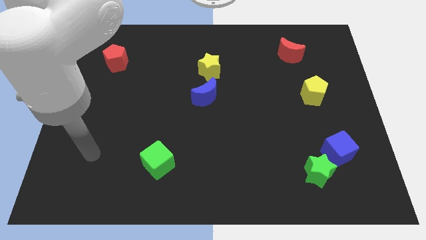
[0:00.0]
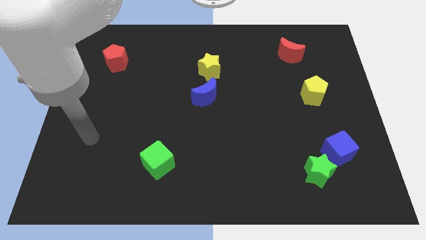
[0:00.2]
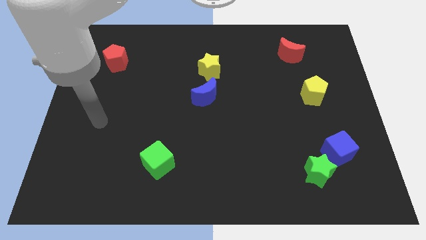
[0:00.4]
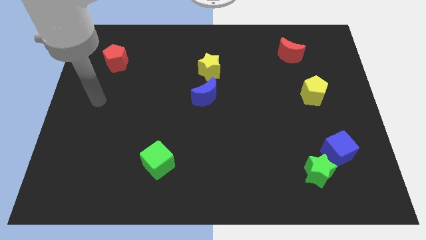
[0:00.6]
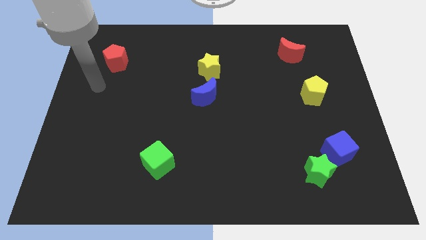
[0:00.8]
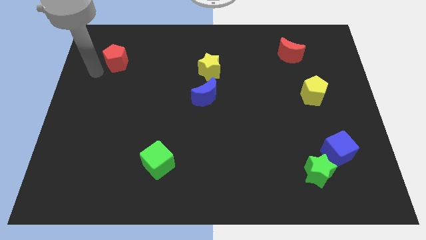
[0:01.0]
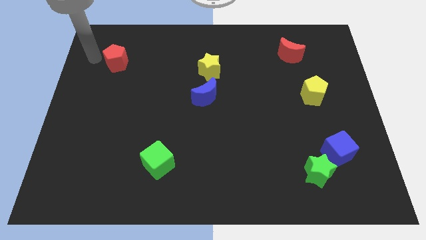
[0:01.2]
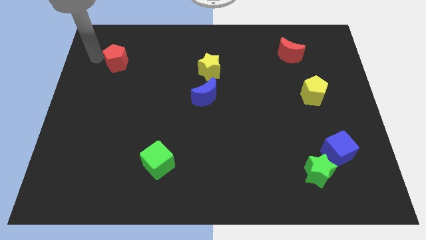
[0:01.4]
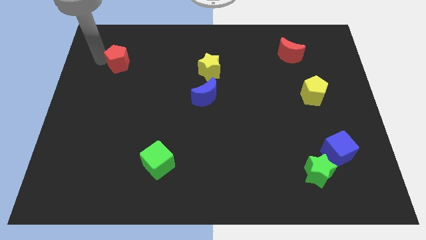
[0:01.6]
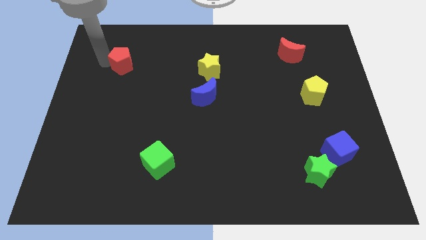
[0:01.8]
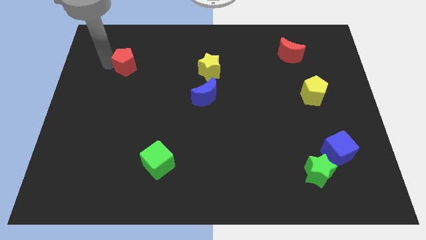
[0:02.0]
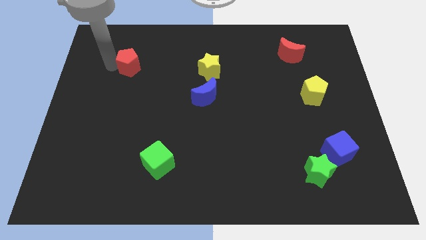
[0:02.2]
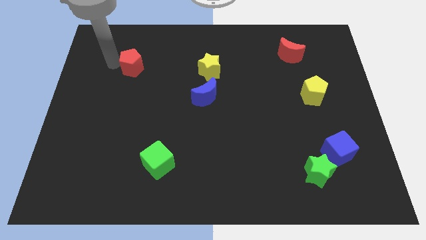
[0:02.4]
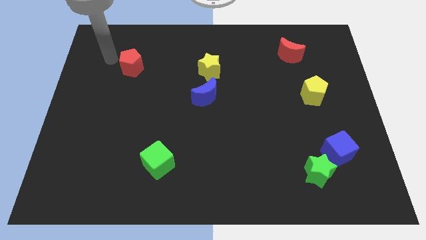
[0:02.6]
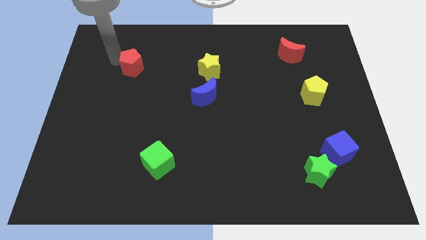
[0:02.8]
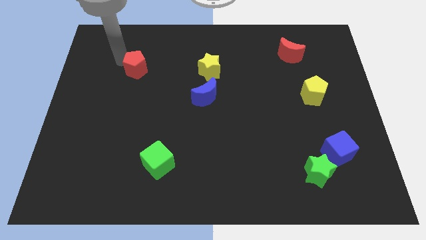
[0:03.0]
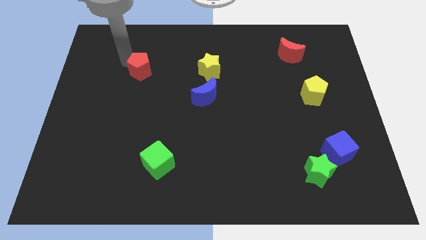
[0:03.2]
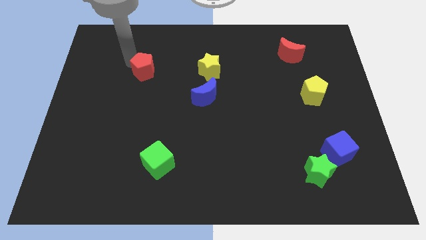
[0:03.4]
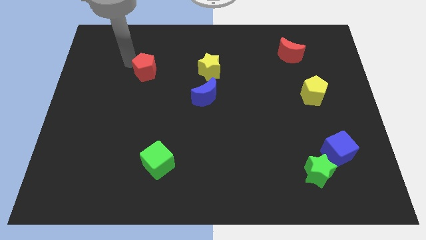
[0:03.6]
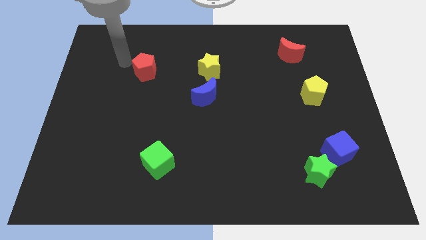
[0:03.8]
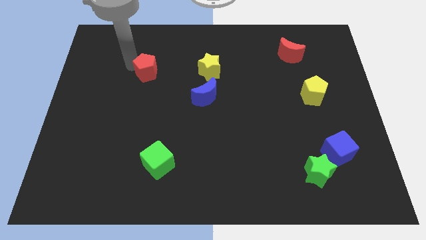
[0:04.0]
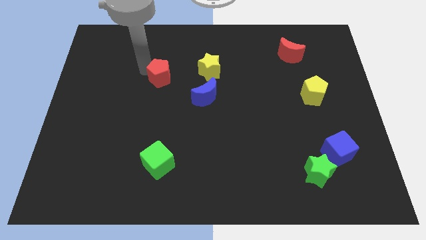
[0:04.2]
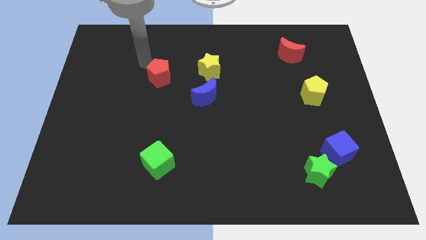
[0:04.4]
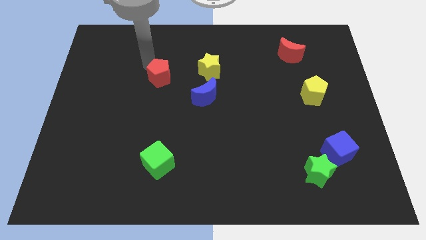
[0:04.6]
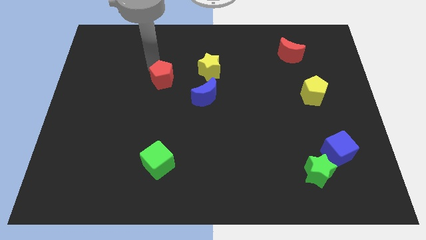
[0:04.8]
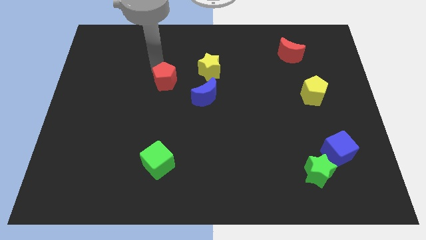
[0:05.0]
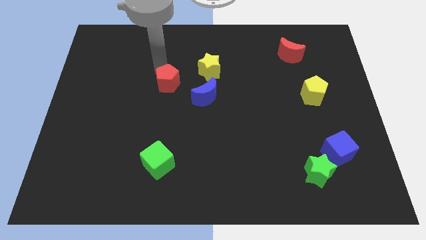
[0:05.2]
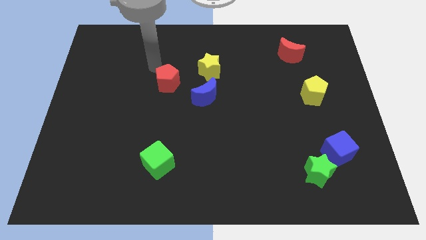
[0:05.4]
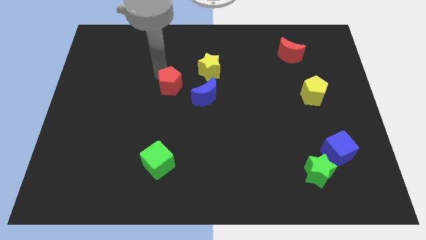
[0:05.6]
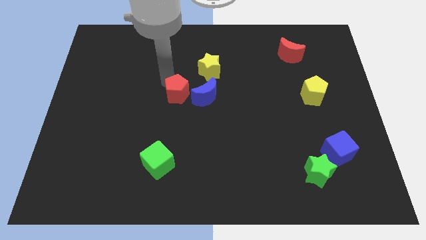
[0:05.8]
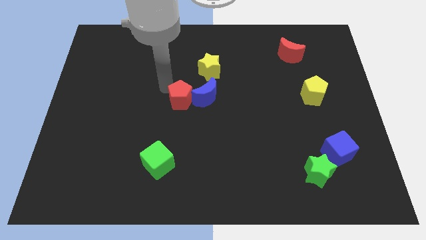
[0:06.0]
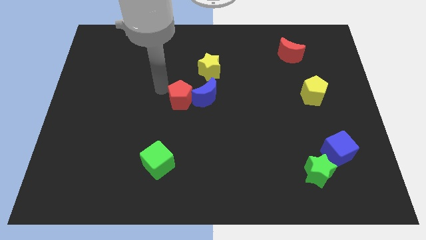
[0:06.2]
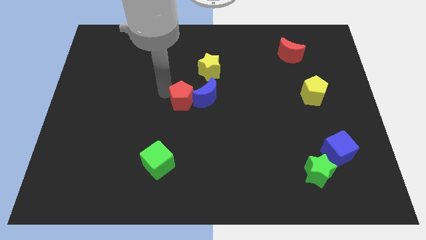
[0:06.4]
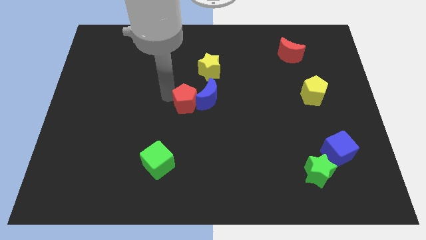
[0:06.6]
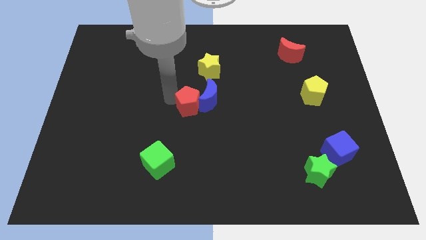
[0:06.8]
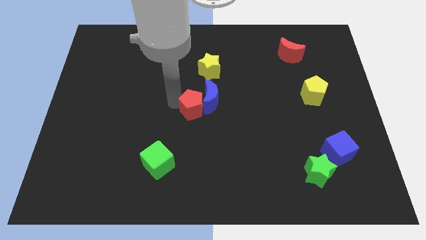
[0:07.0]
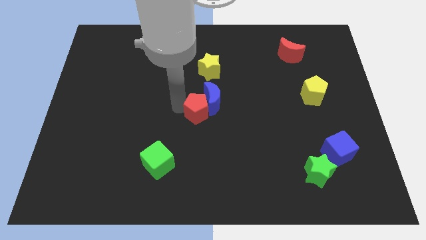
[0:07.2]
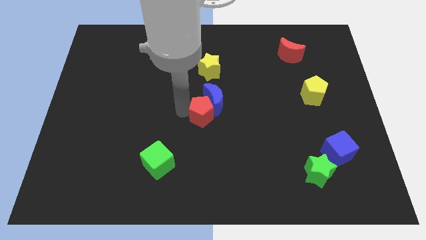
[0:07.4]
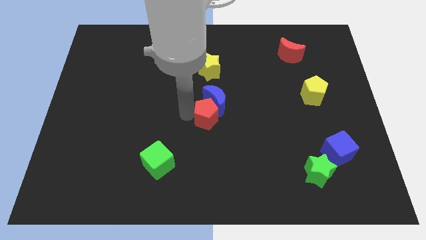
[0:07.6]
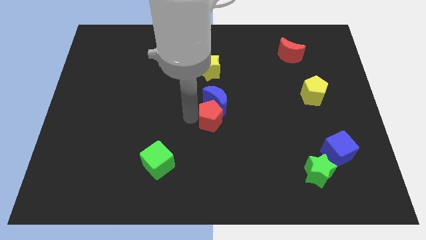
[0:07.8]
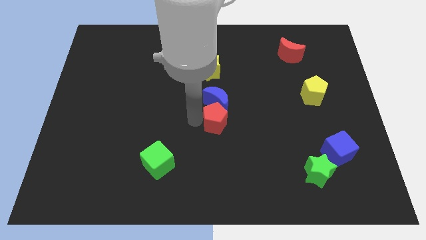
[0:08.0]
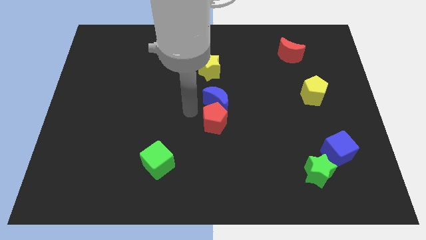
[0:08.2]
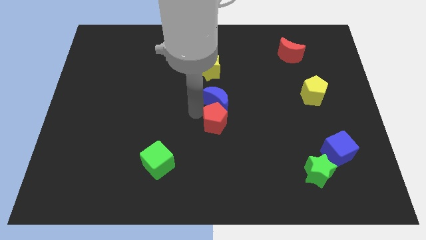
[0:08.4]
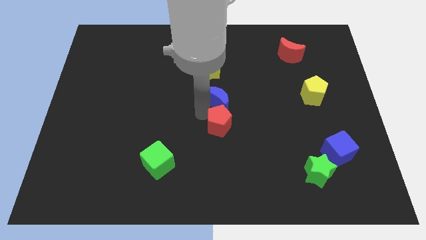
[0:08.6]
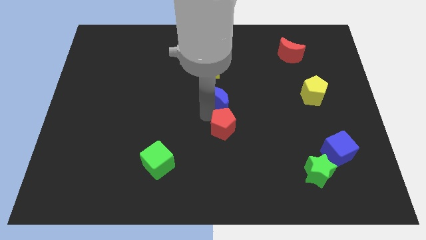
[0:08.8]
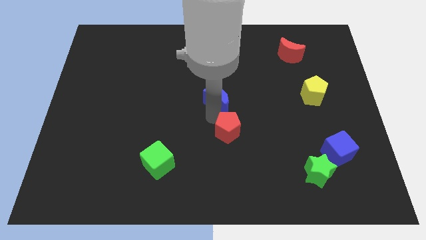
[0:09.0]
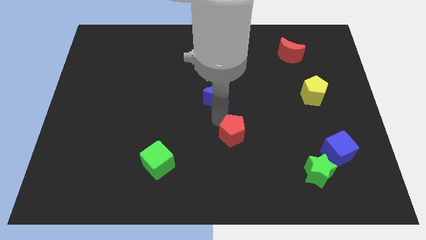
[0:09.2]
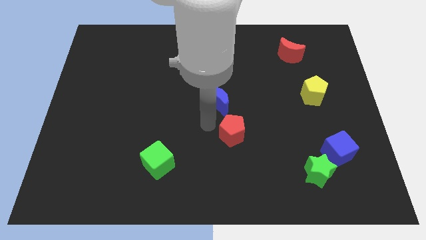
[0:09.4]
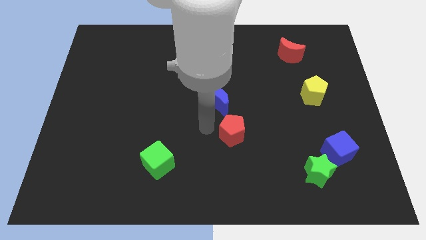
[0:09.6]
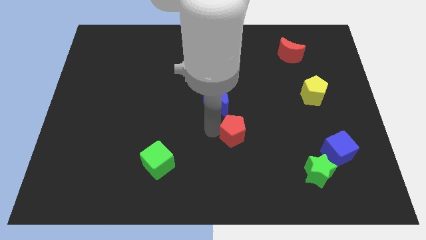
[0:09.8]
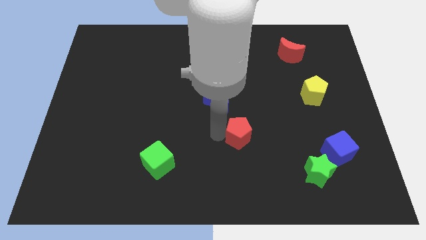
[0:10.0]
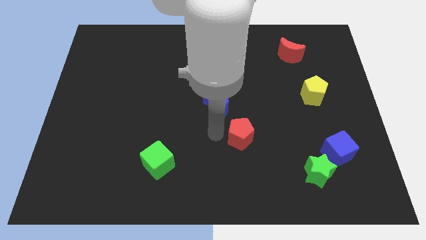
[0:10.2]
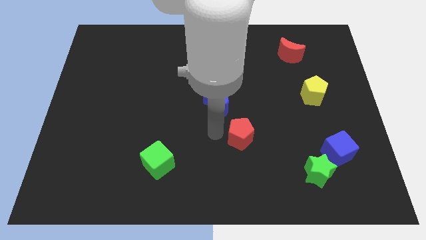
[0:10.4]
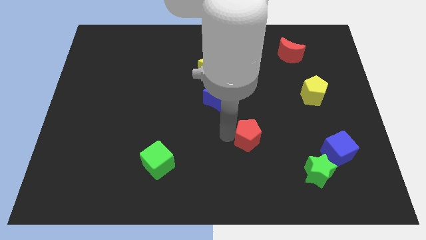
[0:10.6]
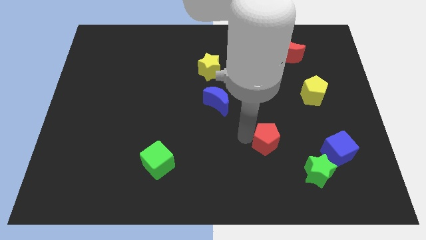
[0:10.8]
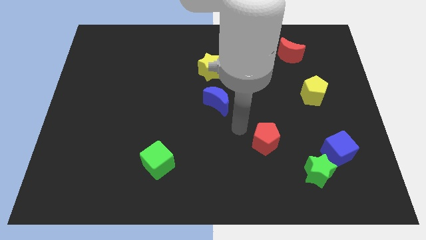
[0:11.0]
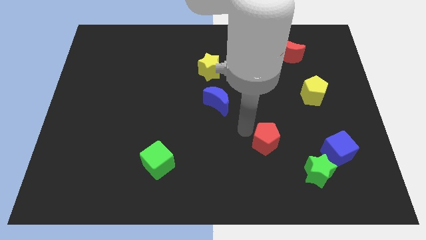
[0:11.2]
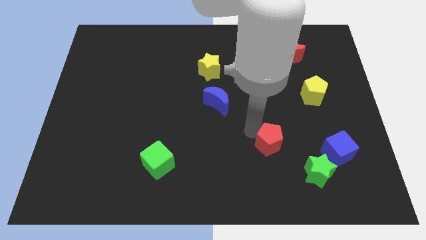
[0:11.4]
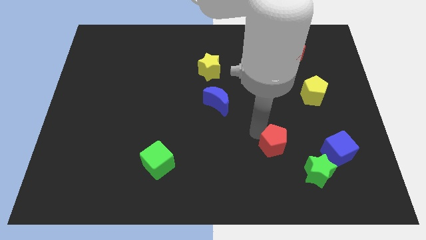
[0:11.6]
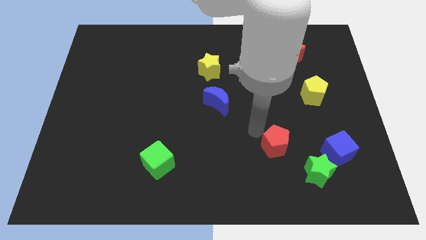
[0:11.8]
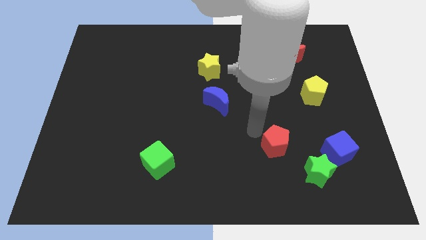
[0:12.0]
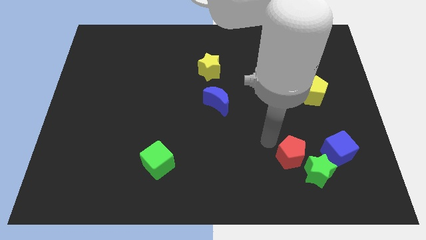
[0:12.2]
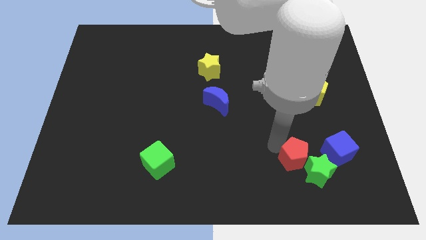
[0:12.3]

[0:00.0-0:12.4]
slide the red pentagon next to the green star
